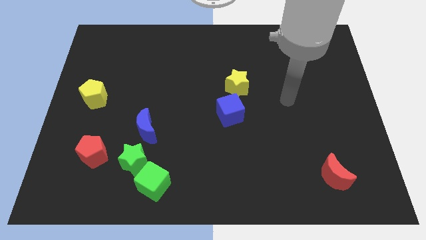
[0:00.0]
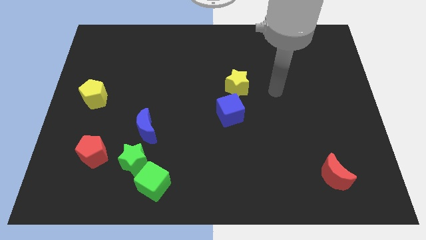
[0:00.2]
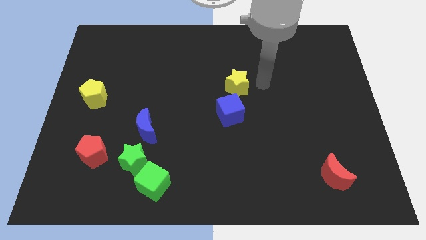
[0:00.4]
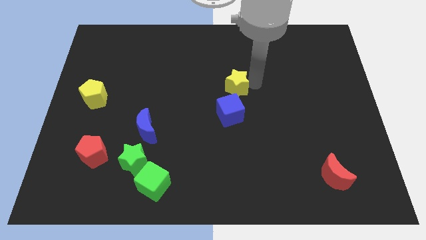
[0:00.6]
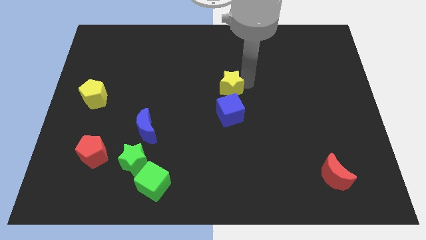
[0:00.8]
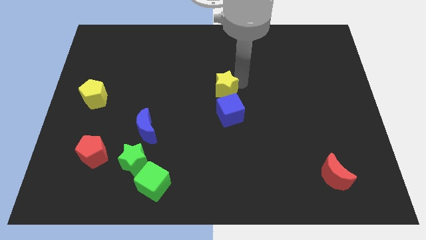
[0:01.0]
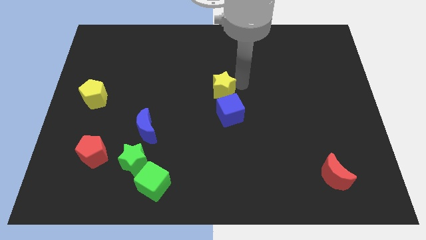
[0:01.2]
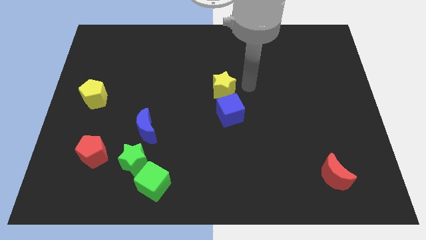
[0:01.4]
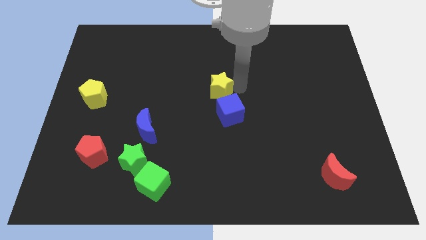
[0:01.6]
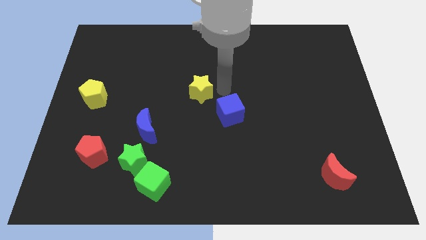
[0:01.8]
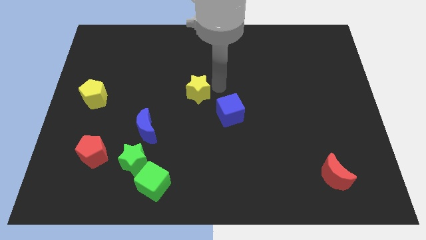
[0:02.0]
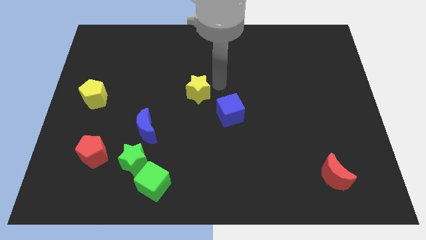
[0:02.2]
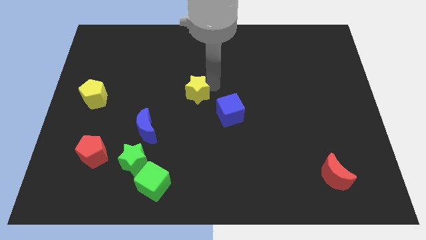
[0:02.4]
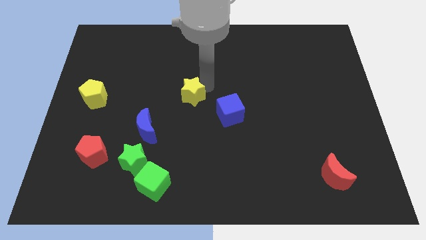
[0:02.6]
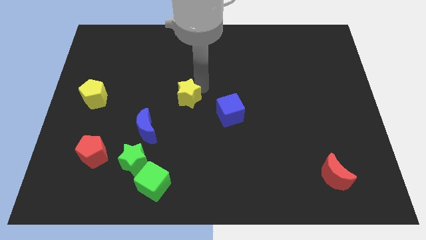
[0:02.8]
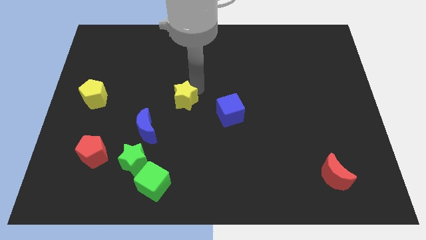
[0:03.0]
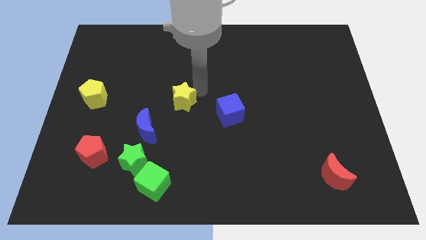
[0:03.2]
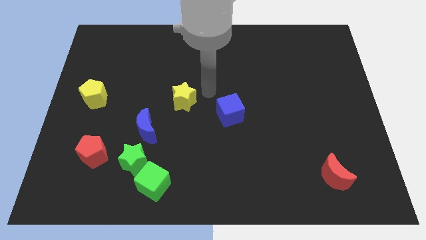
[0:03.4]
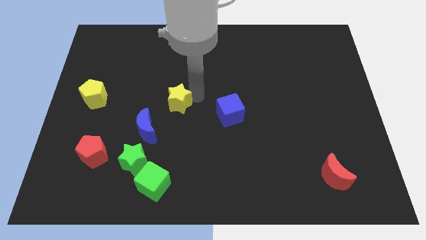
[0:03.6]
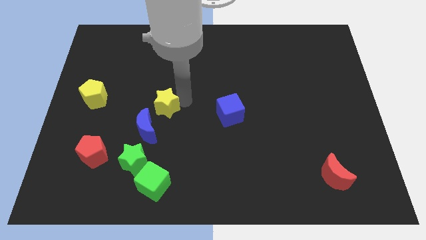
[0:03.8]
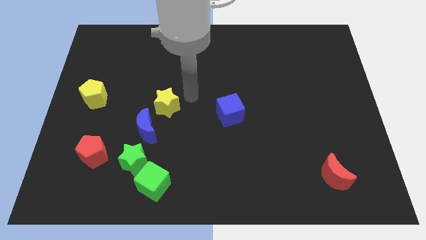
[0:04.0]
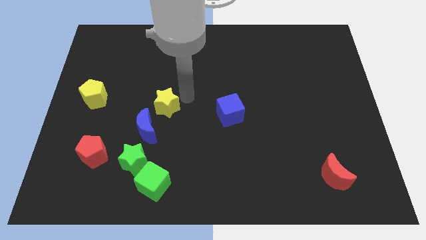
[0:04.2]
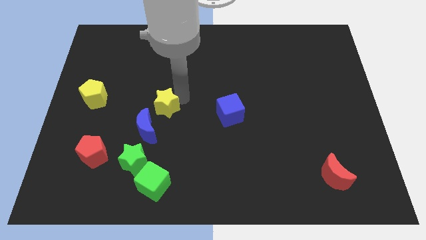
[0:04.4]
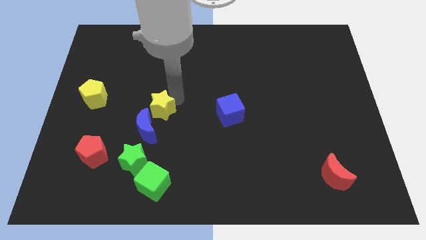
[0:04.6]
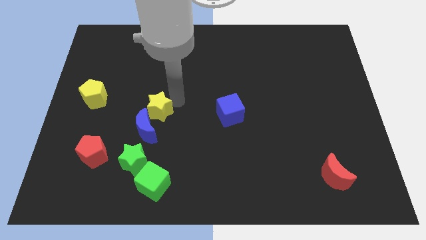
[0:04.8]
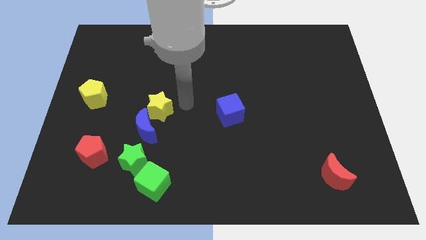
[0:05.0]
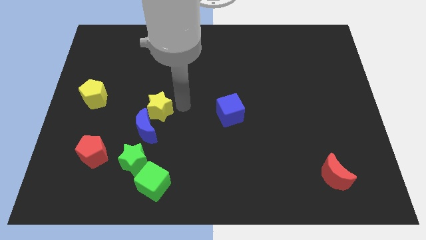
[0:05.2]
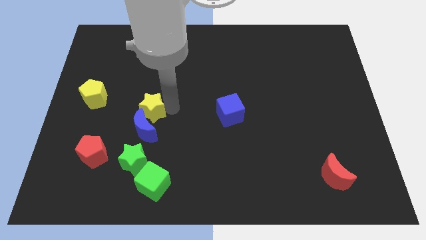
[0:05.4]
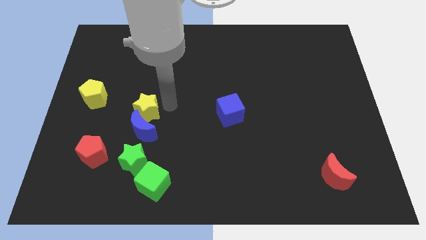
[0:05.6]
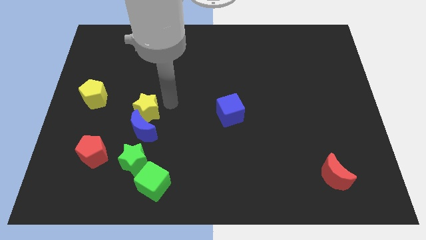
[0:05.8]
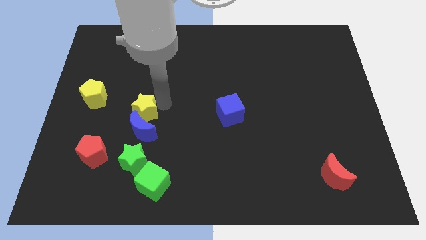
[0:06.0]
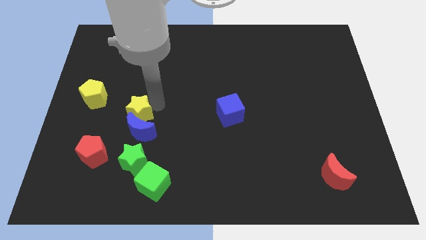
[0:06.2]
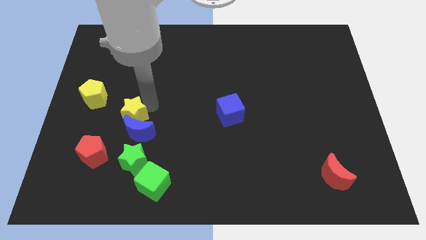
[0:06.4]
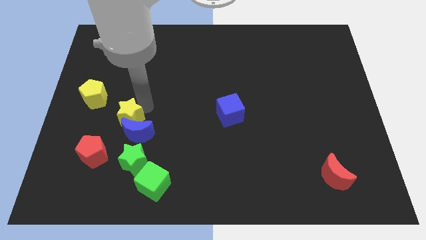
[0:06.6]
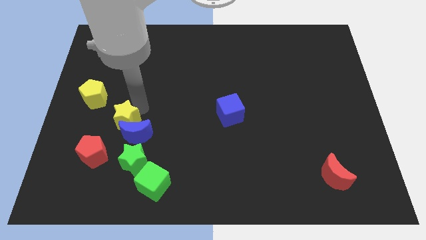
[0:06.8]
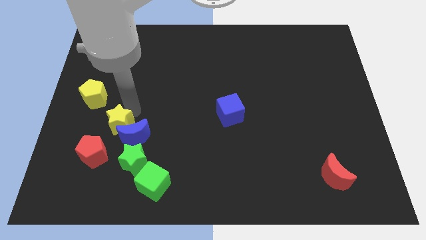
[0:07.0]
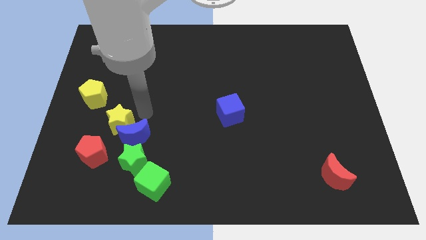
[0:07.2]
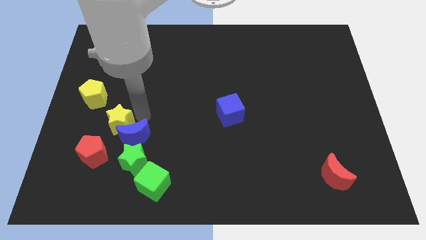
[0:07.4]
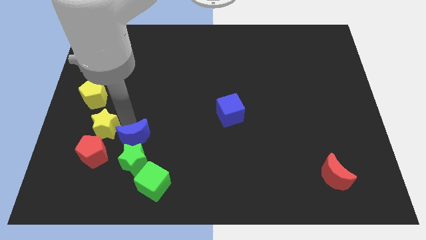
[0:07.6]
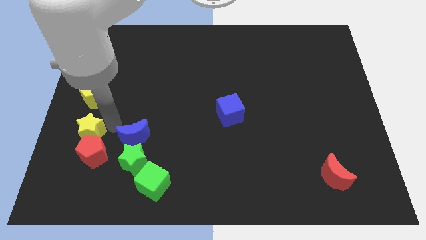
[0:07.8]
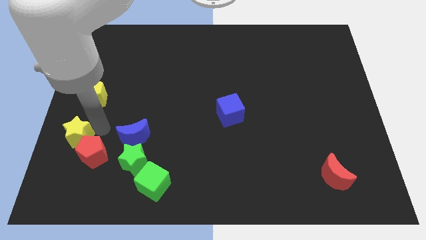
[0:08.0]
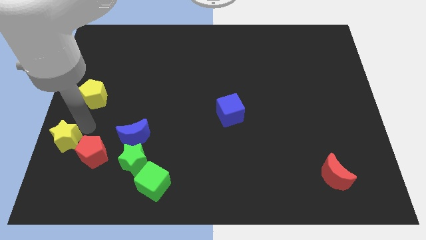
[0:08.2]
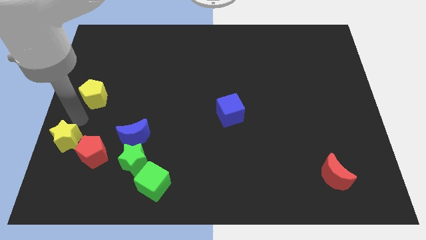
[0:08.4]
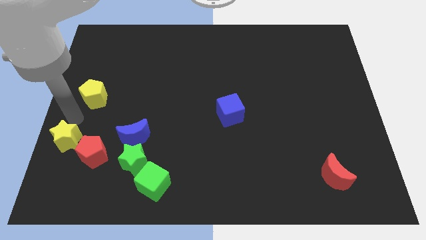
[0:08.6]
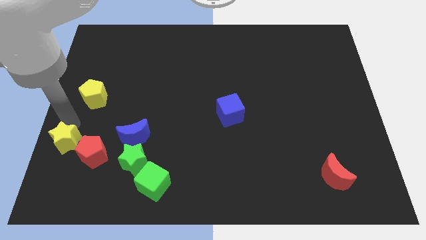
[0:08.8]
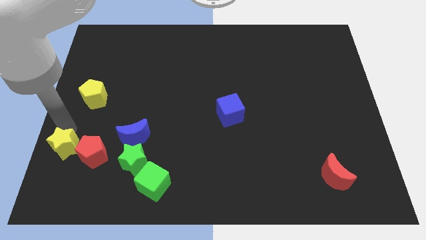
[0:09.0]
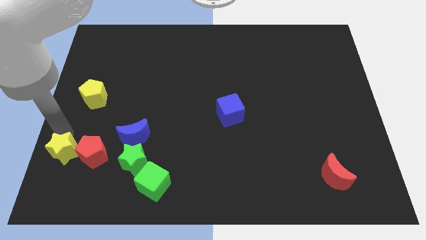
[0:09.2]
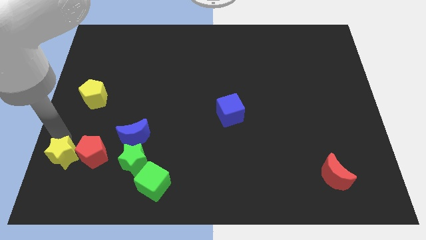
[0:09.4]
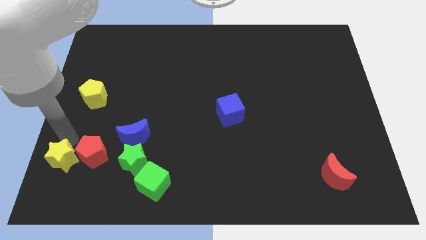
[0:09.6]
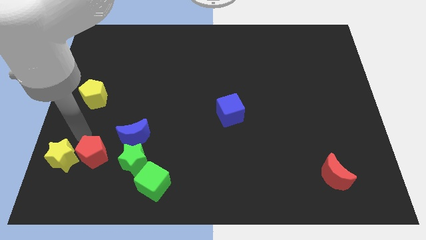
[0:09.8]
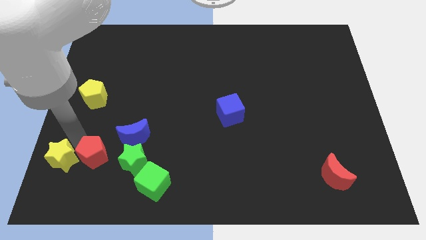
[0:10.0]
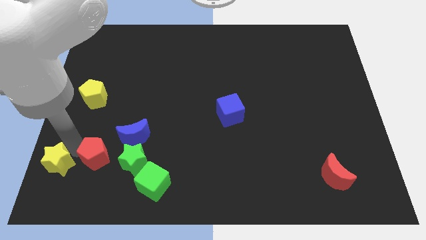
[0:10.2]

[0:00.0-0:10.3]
push the yellow star to the lower left corner

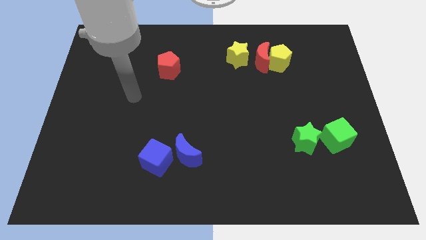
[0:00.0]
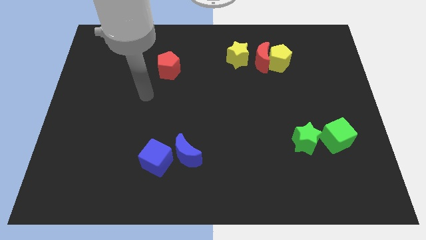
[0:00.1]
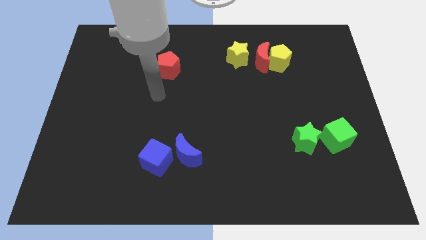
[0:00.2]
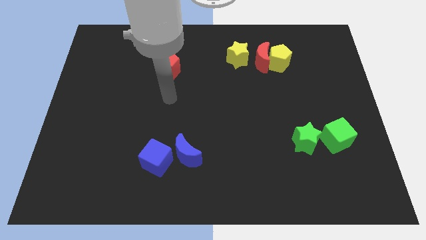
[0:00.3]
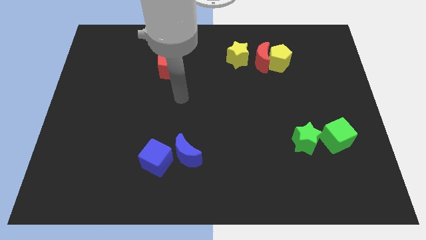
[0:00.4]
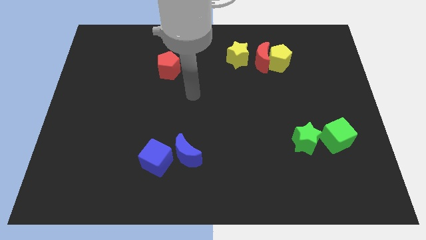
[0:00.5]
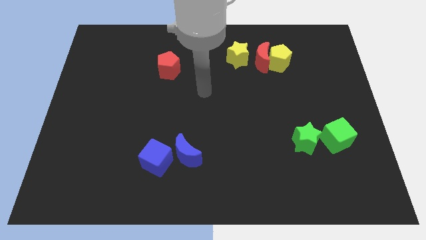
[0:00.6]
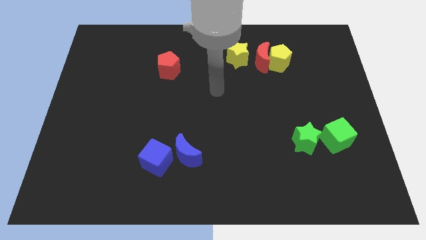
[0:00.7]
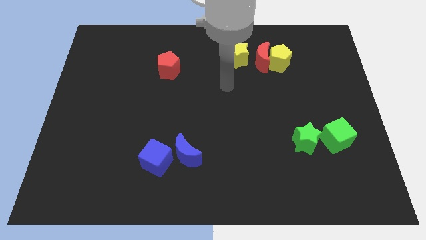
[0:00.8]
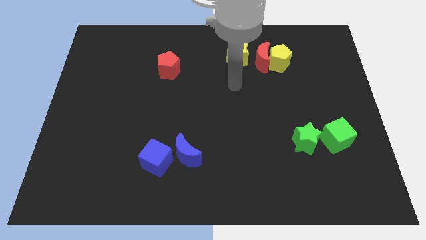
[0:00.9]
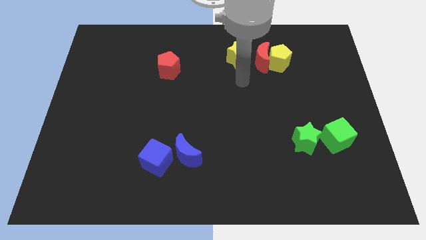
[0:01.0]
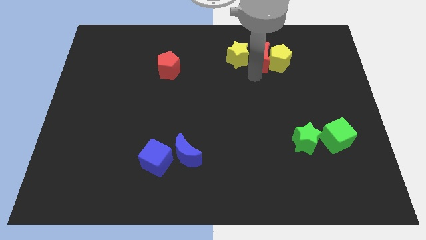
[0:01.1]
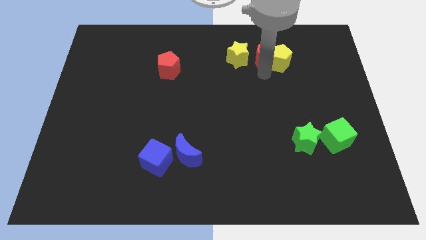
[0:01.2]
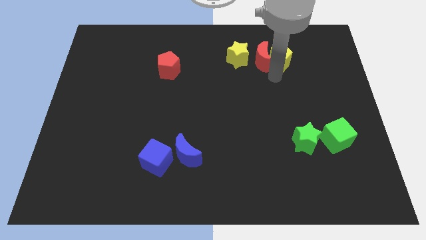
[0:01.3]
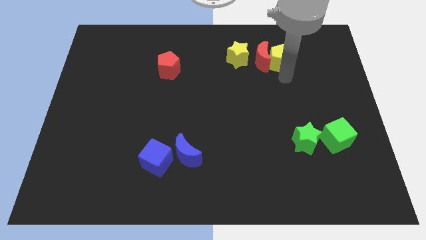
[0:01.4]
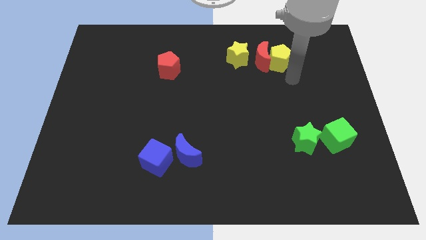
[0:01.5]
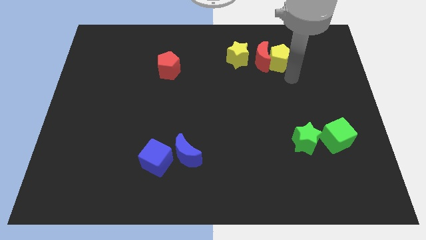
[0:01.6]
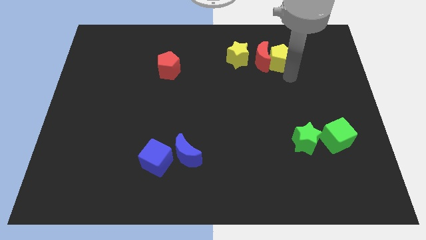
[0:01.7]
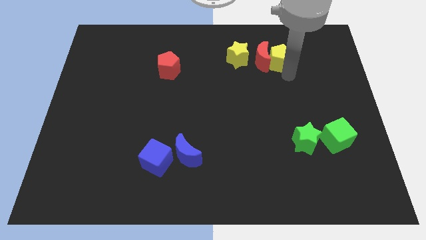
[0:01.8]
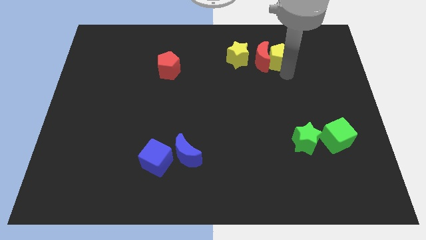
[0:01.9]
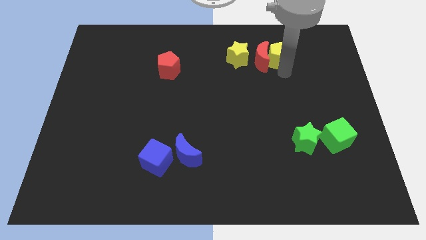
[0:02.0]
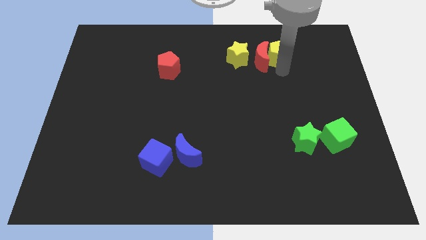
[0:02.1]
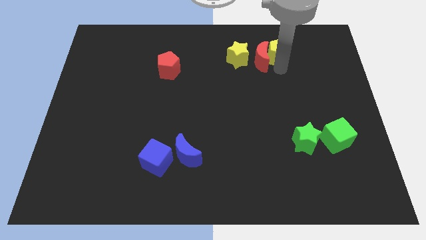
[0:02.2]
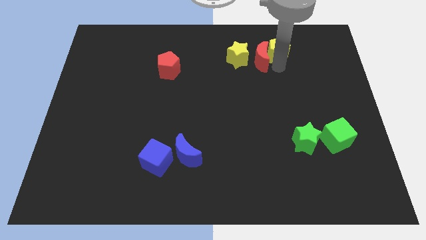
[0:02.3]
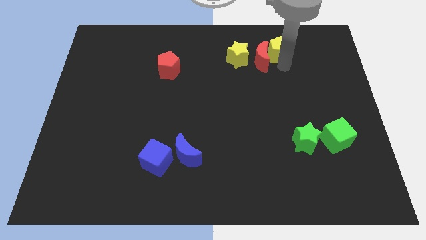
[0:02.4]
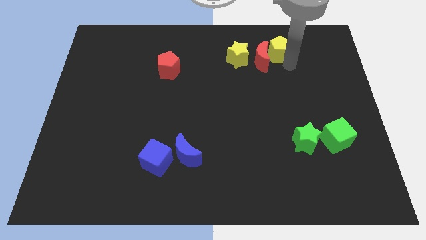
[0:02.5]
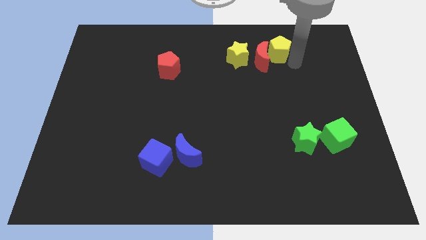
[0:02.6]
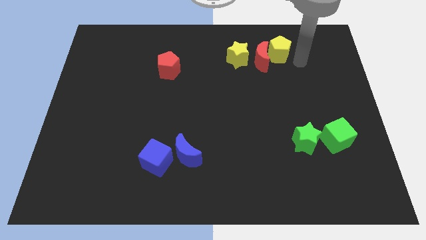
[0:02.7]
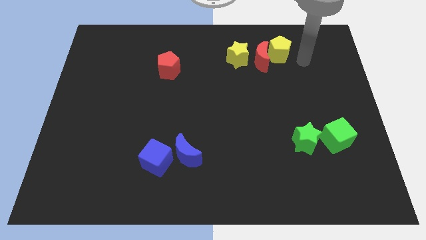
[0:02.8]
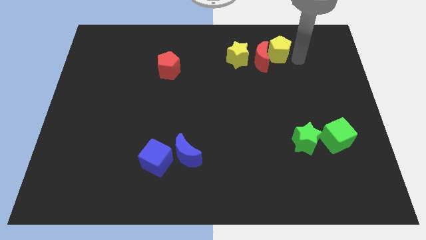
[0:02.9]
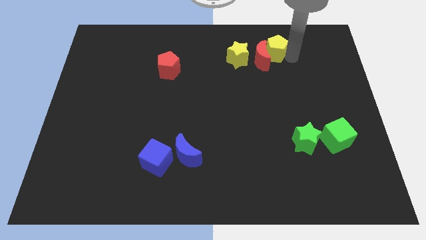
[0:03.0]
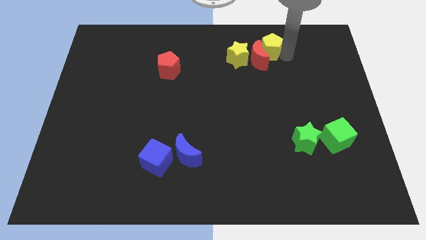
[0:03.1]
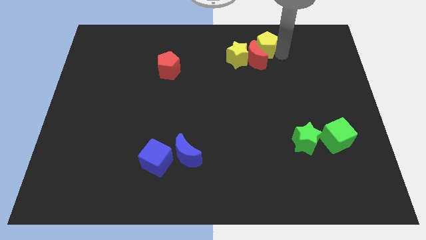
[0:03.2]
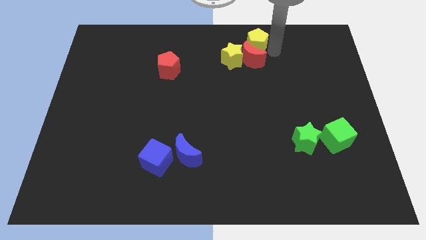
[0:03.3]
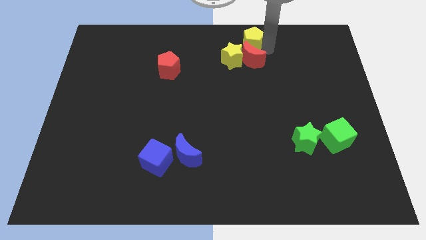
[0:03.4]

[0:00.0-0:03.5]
move the yellow pentagon to the top
